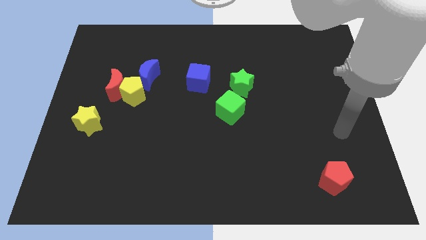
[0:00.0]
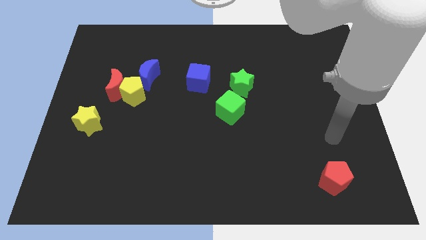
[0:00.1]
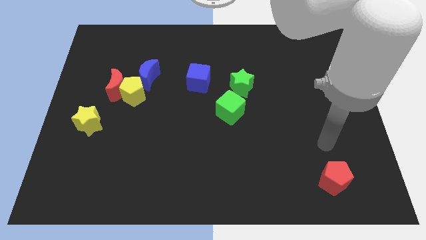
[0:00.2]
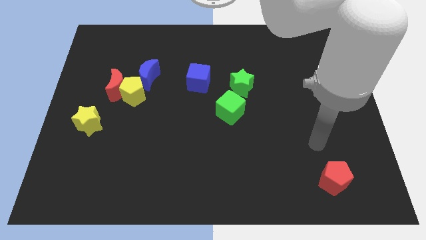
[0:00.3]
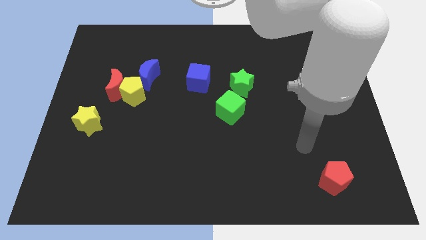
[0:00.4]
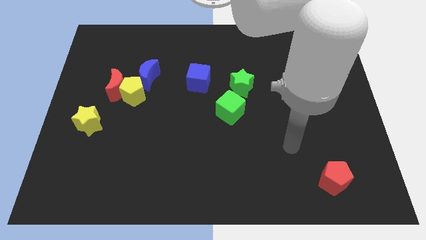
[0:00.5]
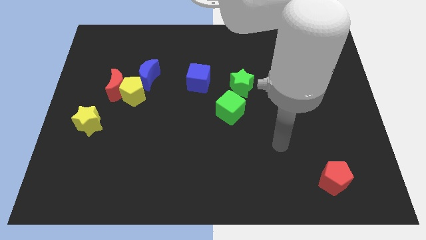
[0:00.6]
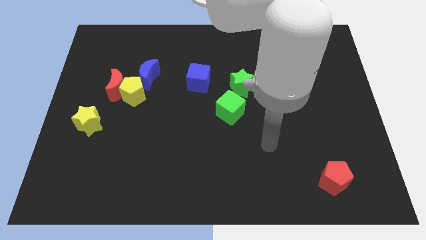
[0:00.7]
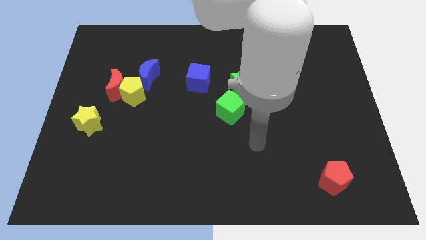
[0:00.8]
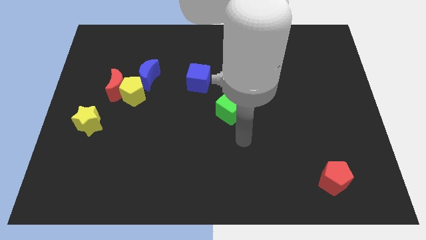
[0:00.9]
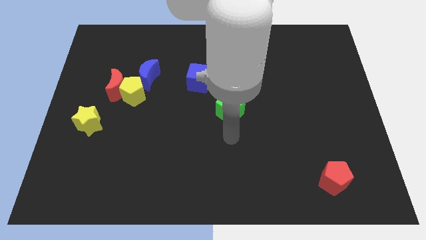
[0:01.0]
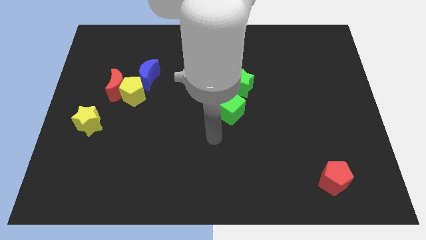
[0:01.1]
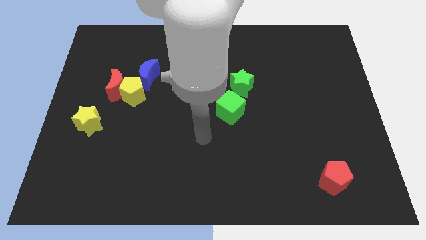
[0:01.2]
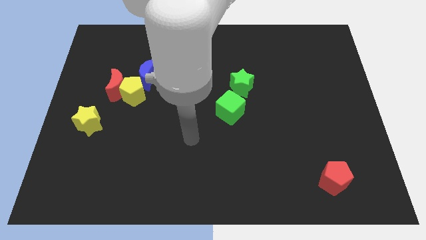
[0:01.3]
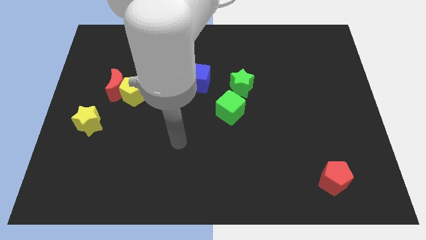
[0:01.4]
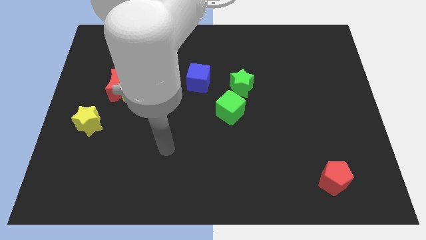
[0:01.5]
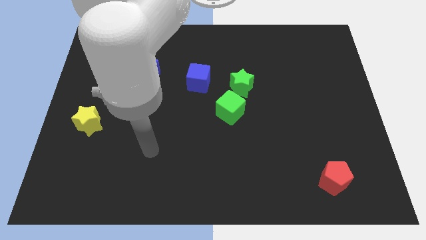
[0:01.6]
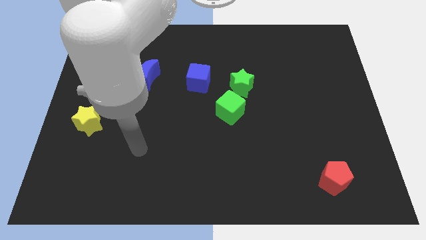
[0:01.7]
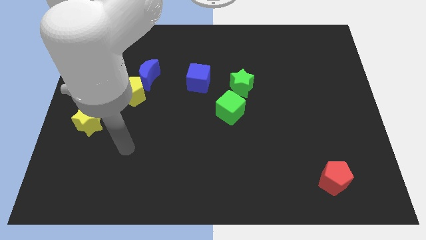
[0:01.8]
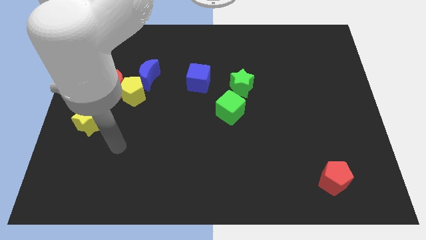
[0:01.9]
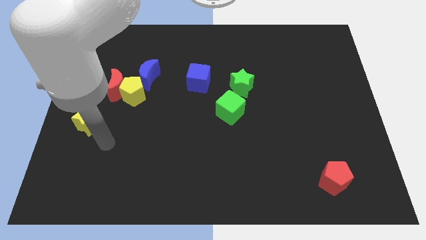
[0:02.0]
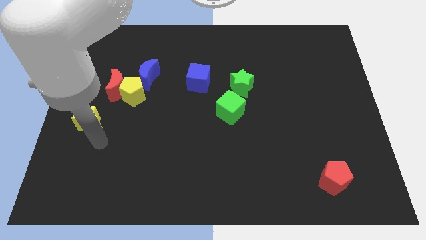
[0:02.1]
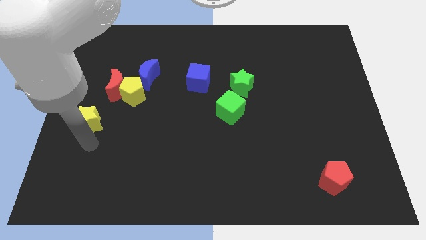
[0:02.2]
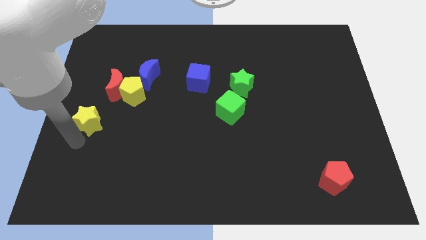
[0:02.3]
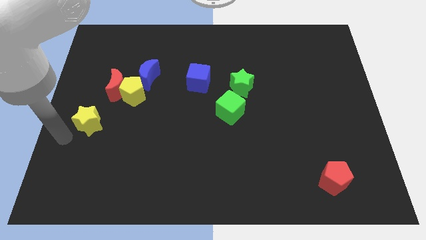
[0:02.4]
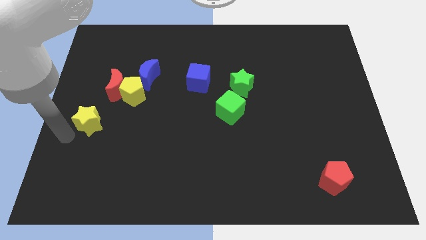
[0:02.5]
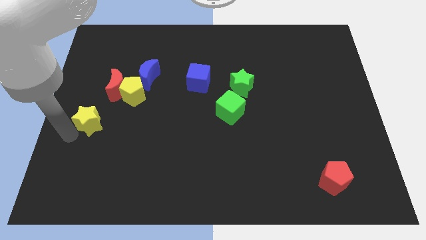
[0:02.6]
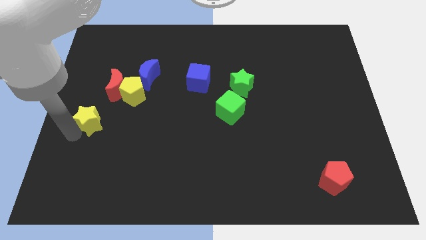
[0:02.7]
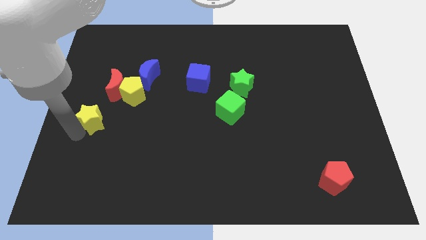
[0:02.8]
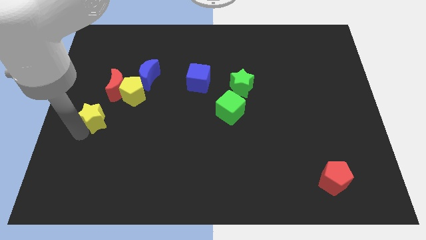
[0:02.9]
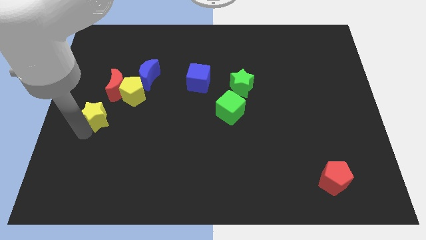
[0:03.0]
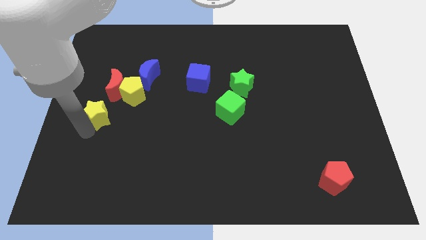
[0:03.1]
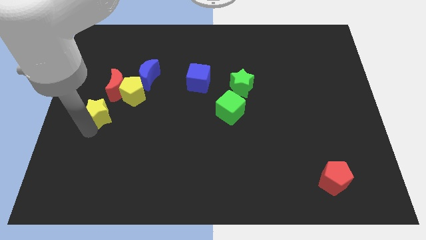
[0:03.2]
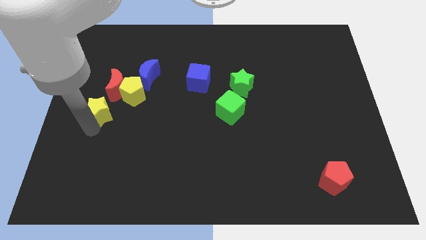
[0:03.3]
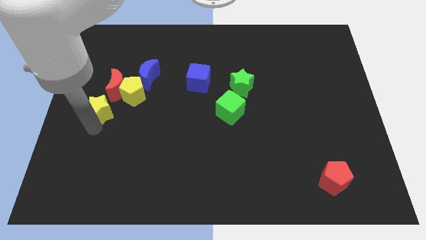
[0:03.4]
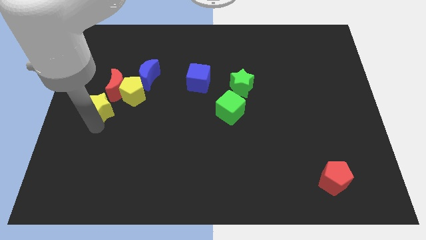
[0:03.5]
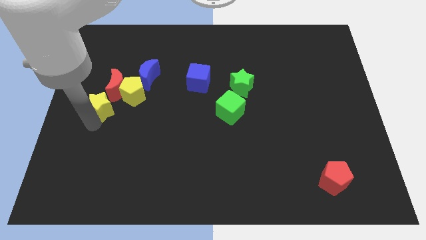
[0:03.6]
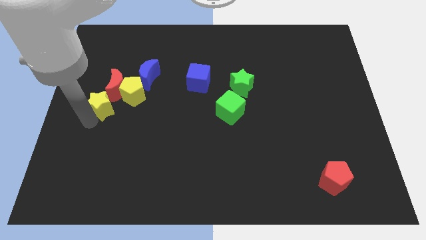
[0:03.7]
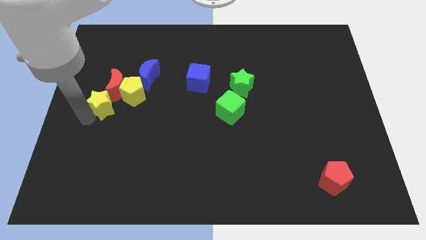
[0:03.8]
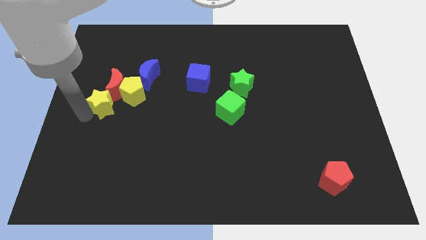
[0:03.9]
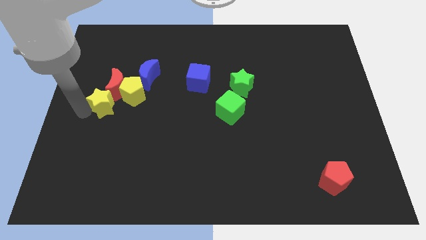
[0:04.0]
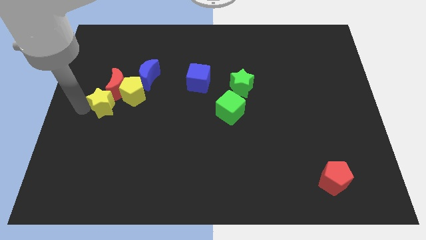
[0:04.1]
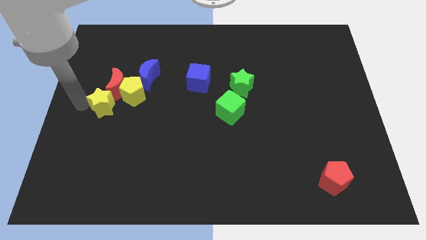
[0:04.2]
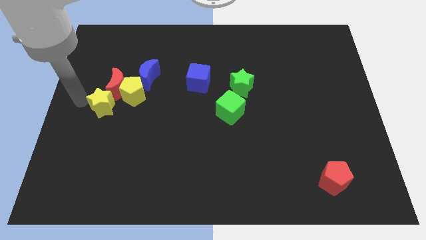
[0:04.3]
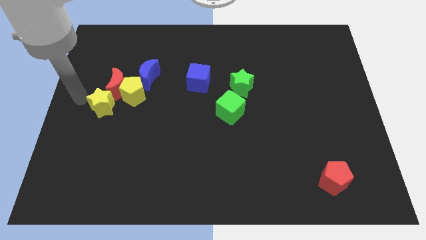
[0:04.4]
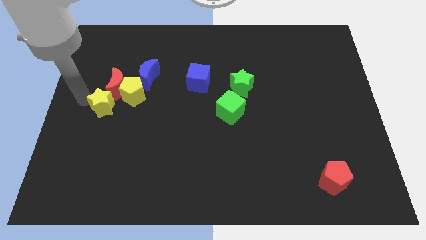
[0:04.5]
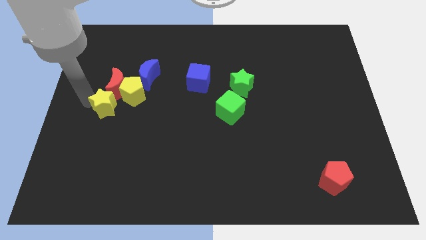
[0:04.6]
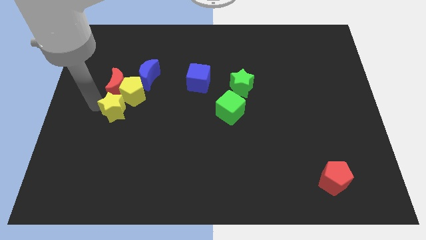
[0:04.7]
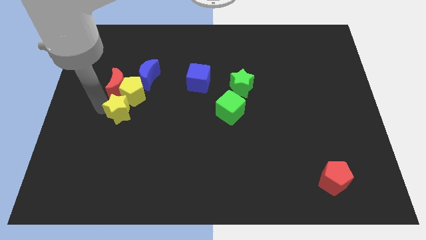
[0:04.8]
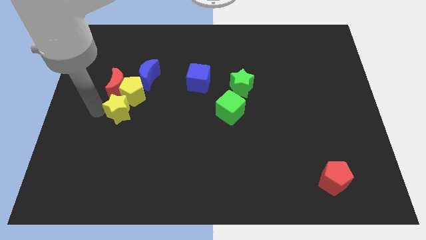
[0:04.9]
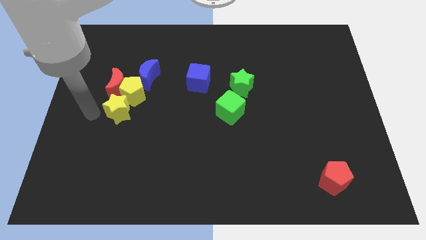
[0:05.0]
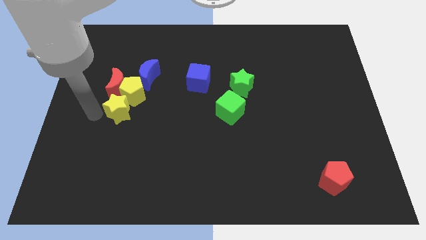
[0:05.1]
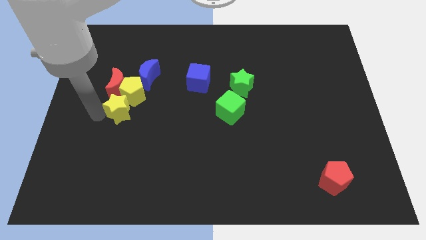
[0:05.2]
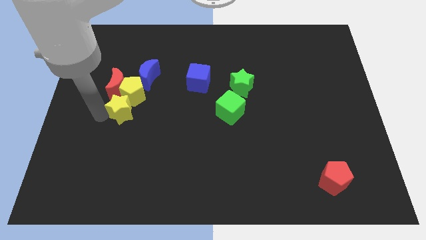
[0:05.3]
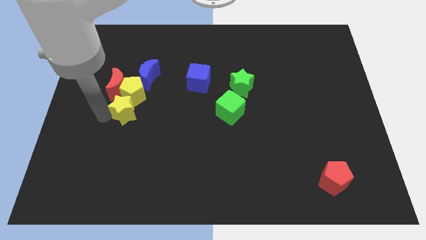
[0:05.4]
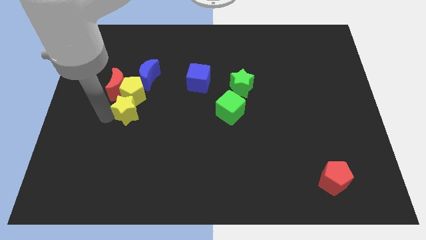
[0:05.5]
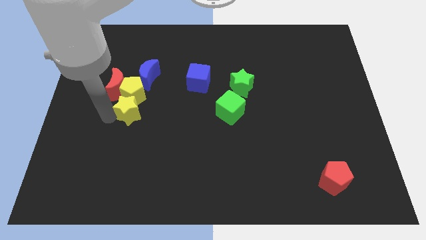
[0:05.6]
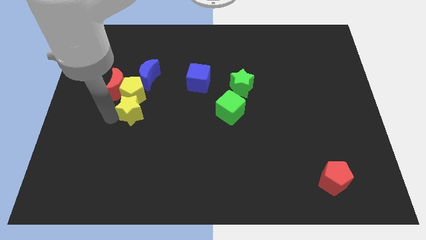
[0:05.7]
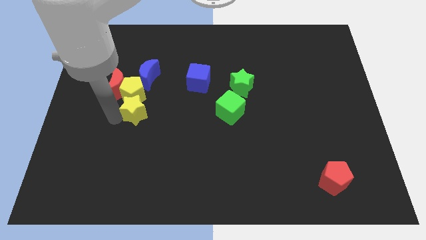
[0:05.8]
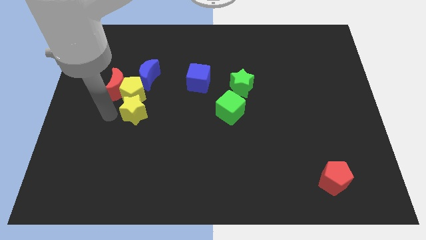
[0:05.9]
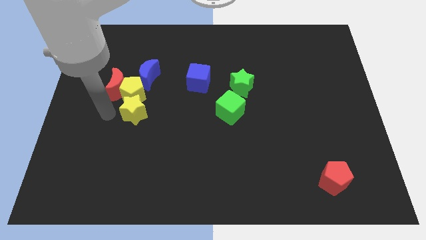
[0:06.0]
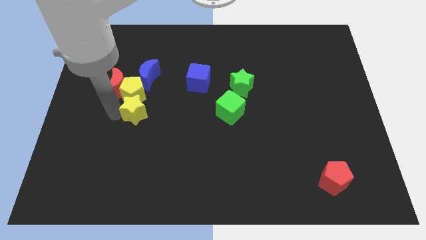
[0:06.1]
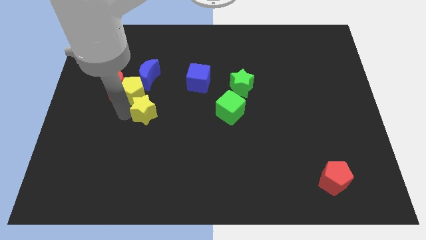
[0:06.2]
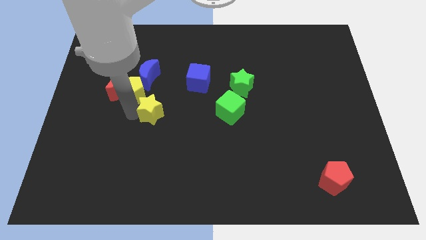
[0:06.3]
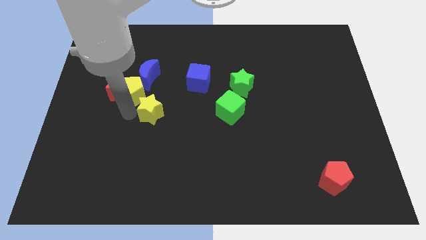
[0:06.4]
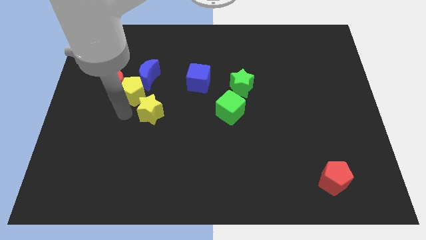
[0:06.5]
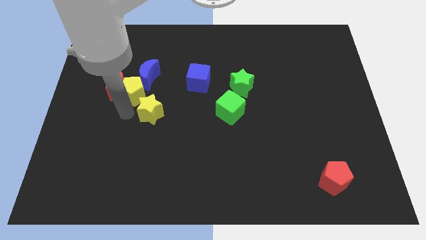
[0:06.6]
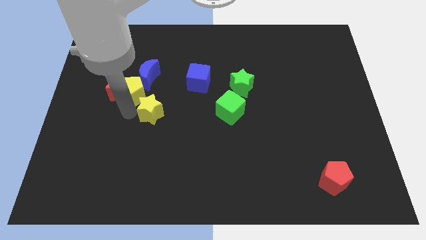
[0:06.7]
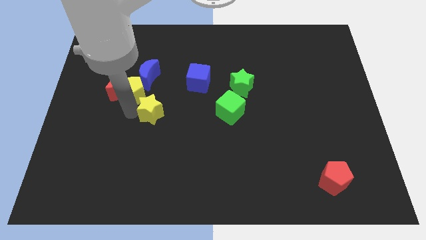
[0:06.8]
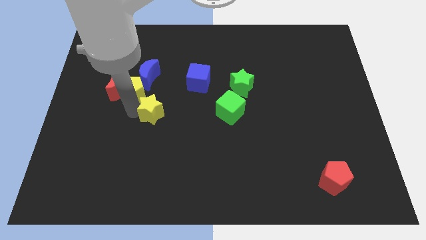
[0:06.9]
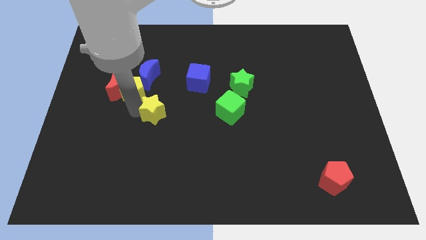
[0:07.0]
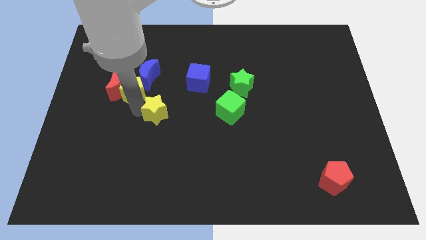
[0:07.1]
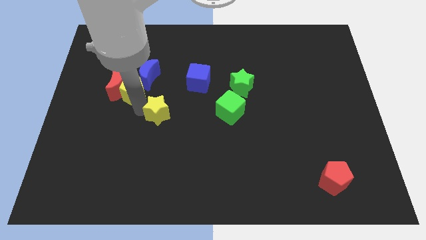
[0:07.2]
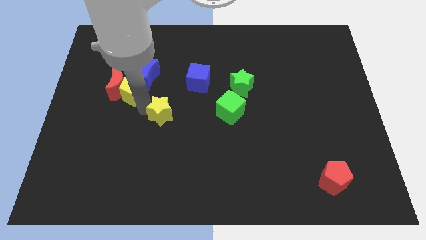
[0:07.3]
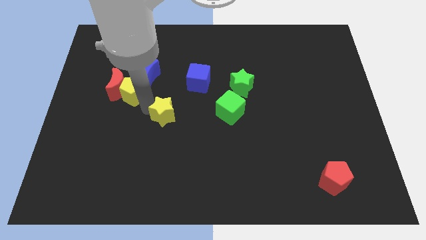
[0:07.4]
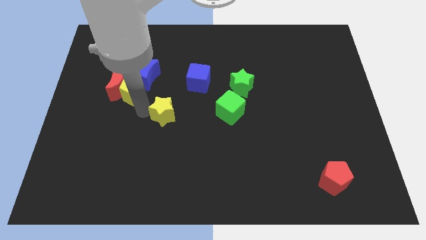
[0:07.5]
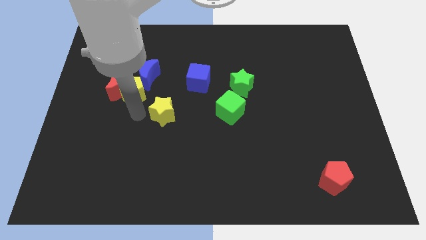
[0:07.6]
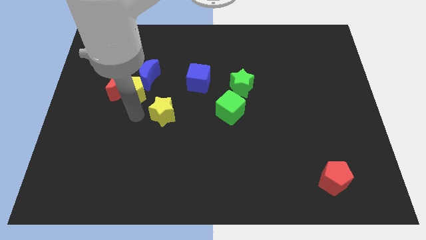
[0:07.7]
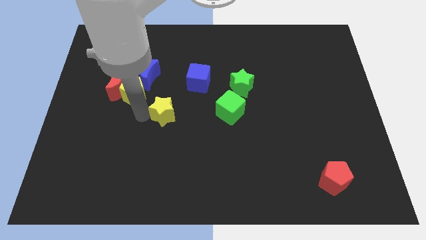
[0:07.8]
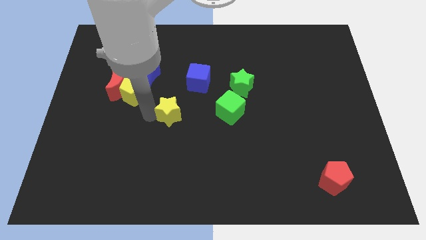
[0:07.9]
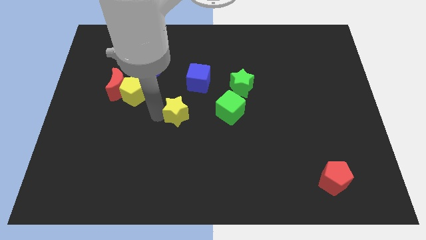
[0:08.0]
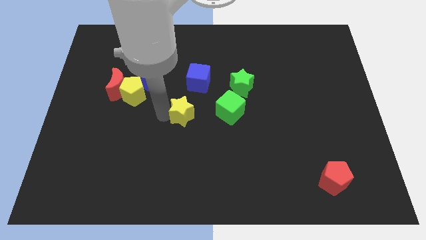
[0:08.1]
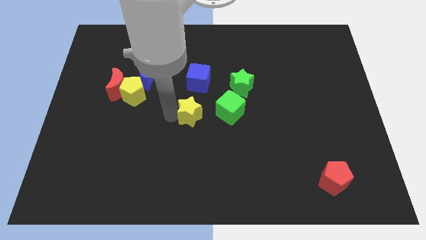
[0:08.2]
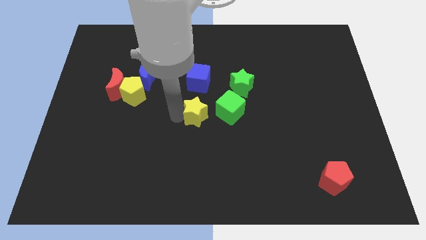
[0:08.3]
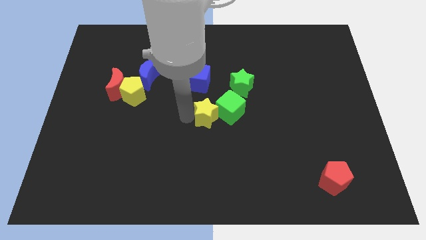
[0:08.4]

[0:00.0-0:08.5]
move the yellow star towards the green cube
